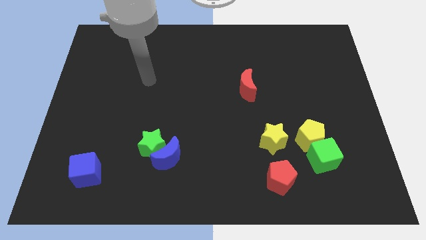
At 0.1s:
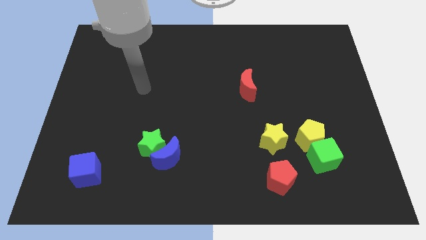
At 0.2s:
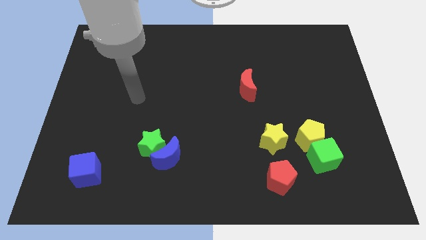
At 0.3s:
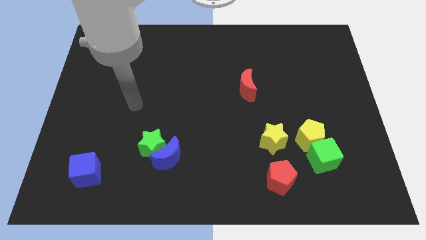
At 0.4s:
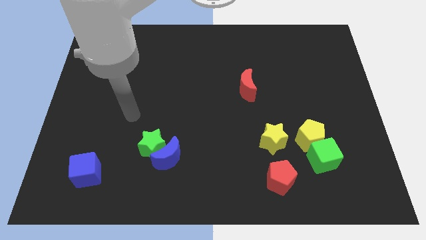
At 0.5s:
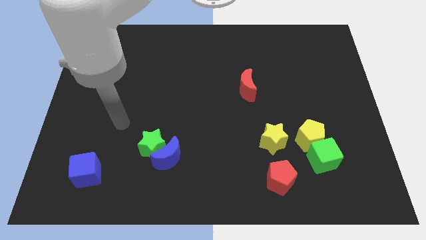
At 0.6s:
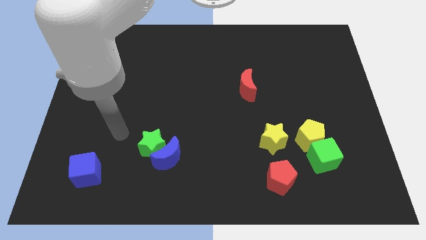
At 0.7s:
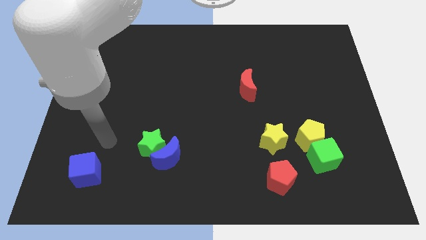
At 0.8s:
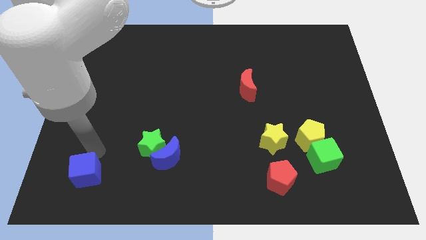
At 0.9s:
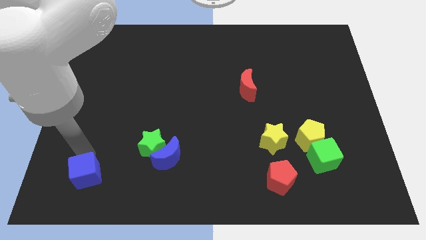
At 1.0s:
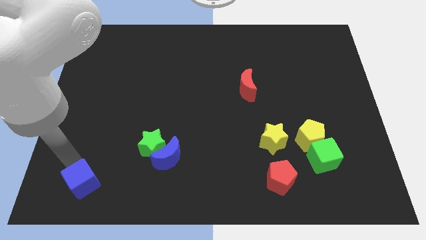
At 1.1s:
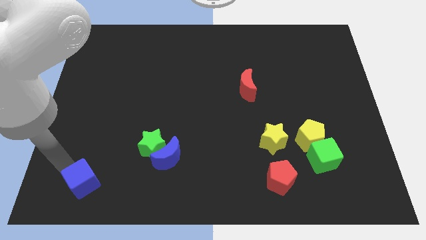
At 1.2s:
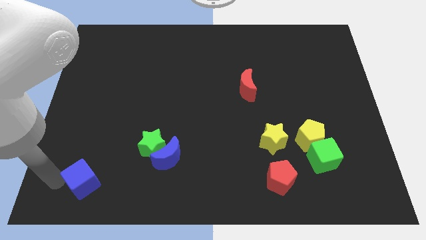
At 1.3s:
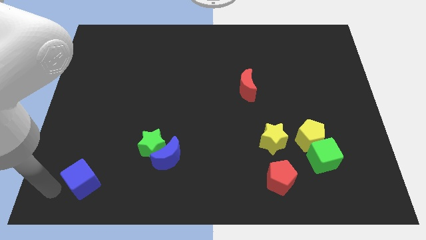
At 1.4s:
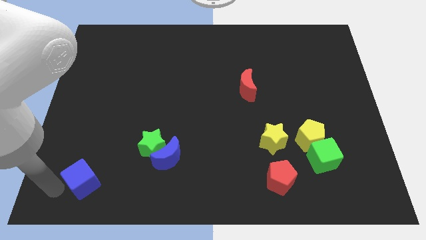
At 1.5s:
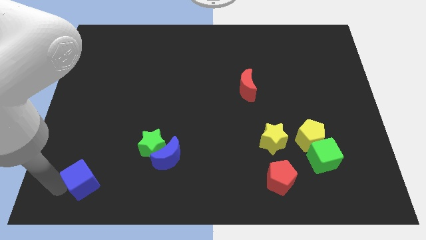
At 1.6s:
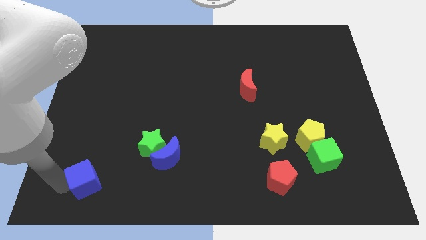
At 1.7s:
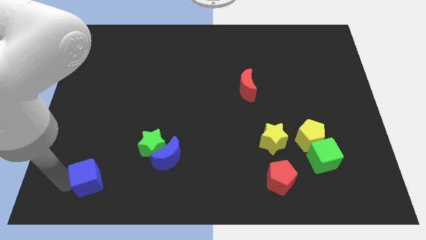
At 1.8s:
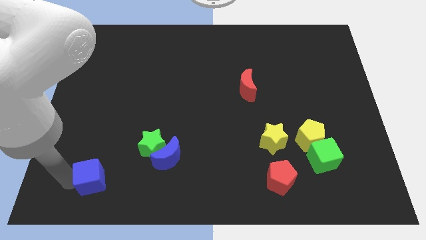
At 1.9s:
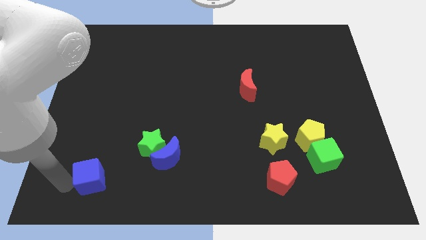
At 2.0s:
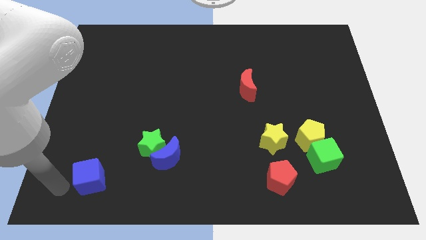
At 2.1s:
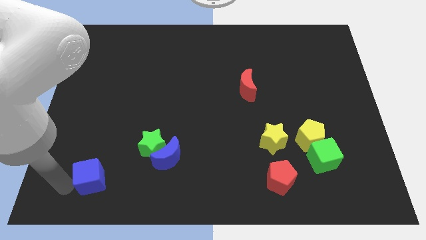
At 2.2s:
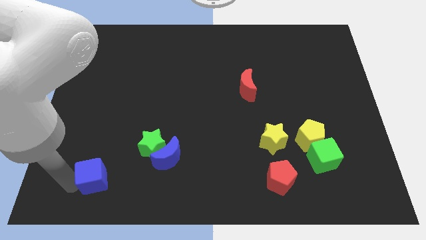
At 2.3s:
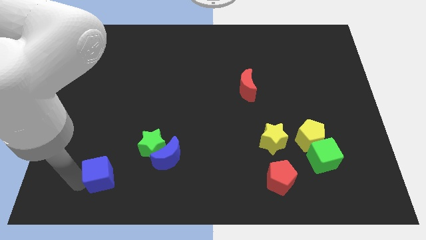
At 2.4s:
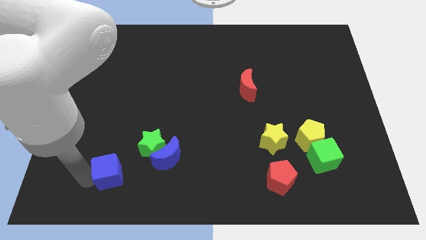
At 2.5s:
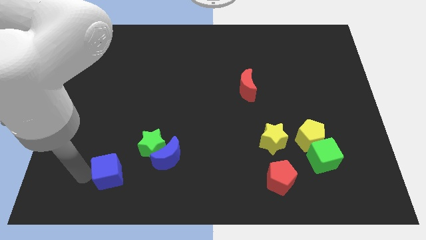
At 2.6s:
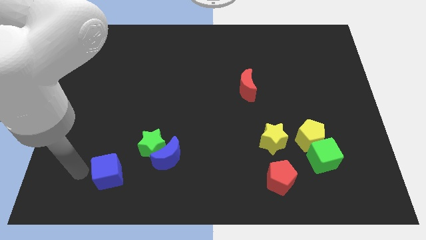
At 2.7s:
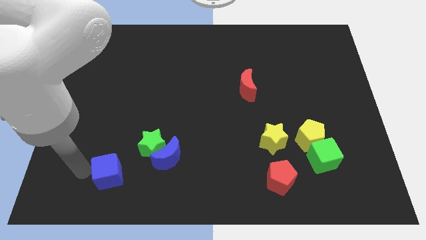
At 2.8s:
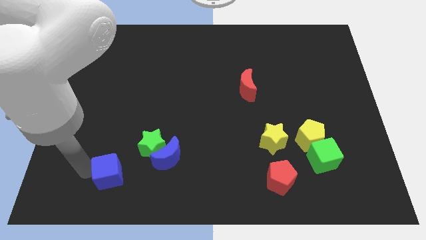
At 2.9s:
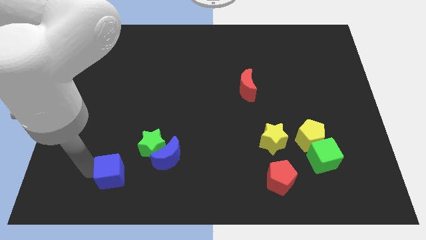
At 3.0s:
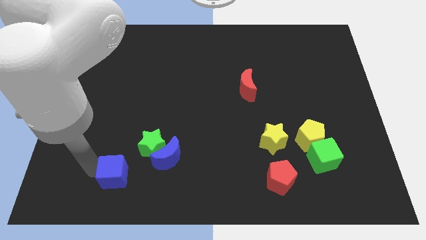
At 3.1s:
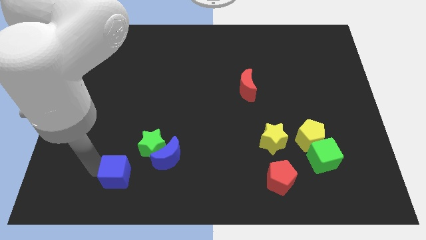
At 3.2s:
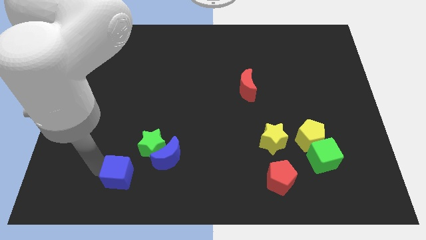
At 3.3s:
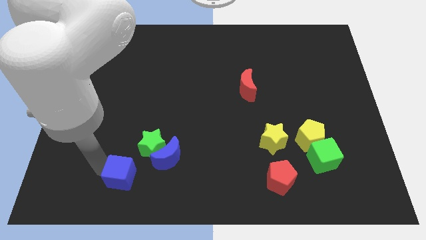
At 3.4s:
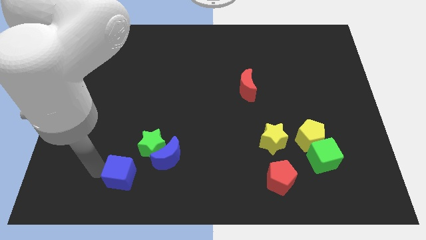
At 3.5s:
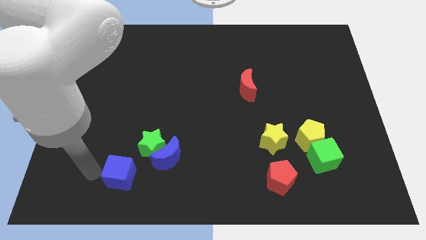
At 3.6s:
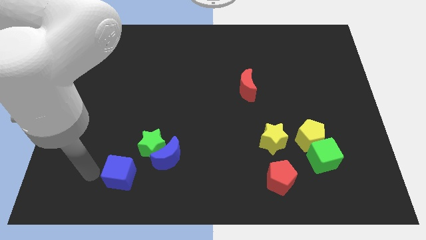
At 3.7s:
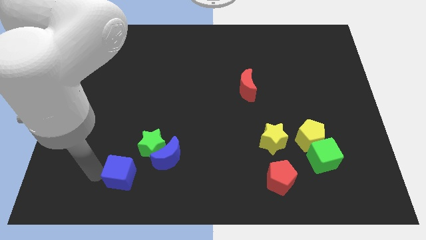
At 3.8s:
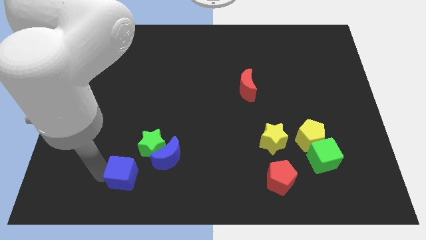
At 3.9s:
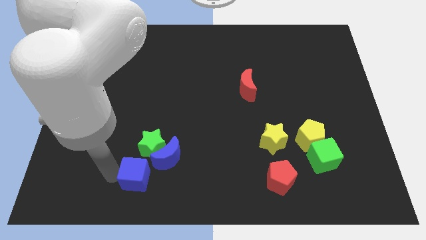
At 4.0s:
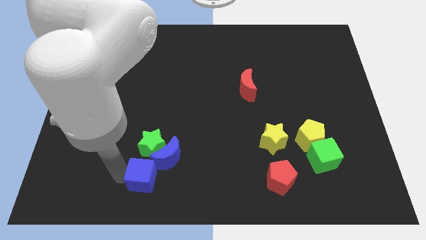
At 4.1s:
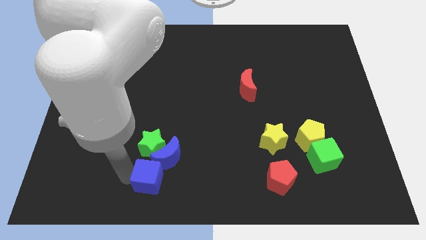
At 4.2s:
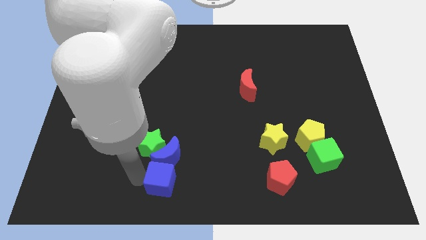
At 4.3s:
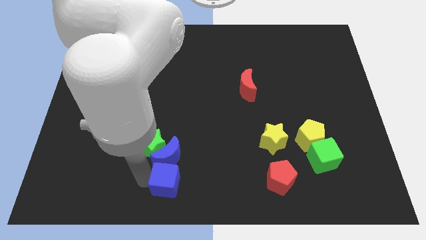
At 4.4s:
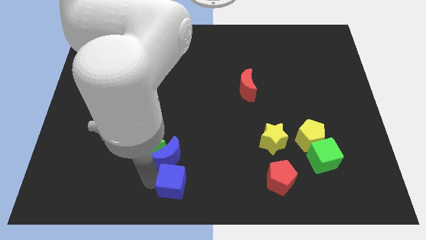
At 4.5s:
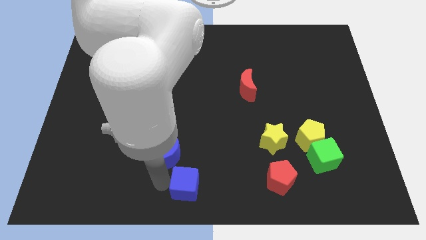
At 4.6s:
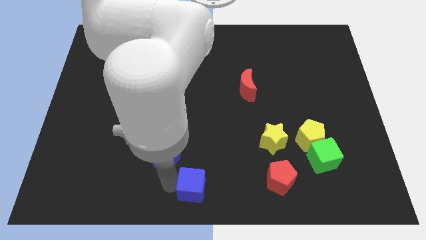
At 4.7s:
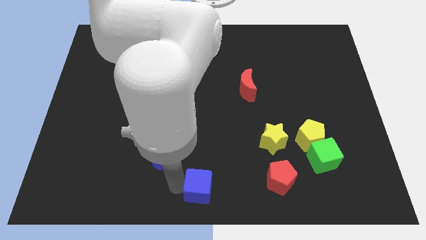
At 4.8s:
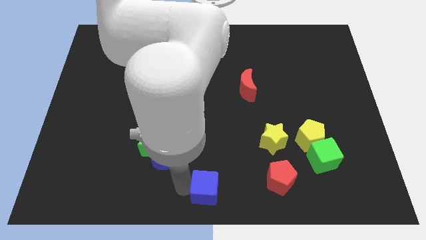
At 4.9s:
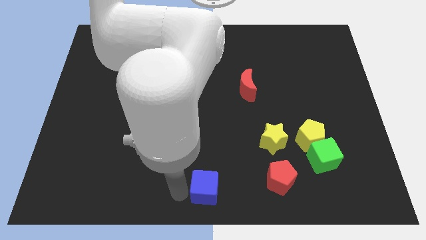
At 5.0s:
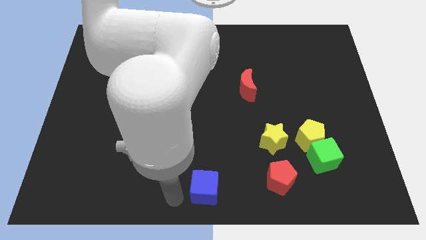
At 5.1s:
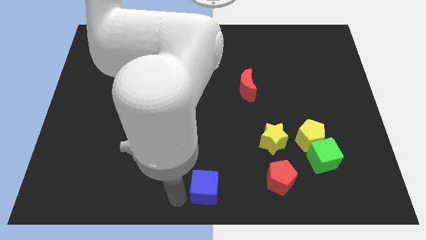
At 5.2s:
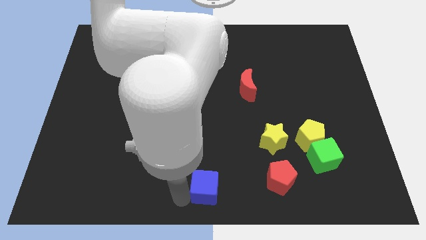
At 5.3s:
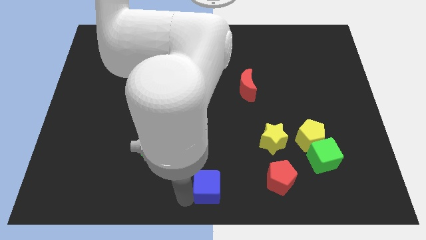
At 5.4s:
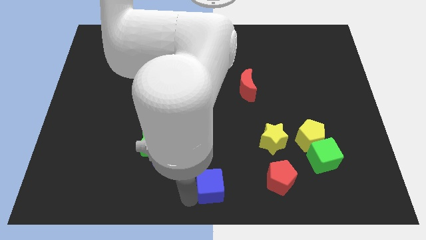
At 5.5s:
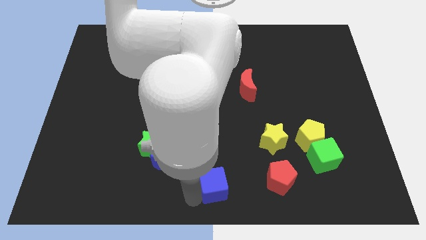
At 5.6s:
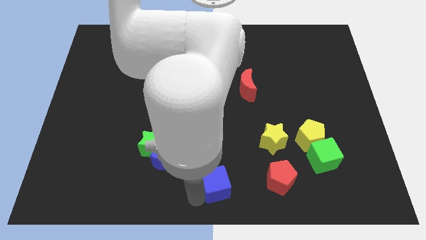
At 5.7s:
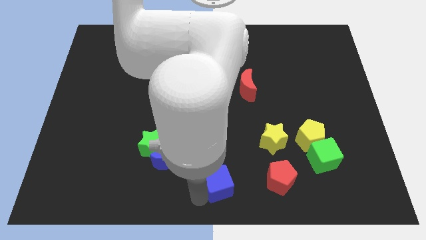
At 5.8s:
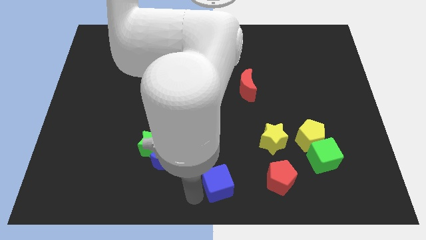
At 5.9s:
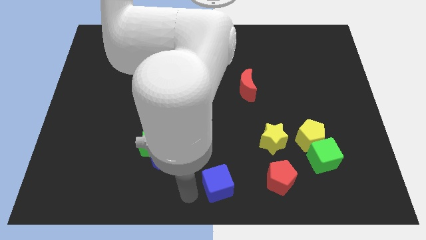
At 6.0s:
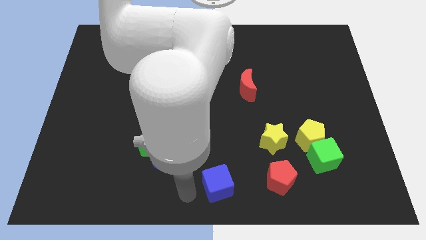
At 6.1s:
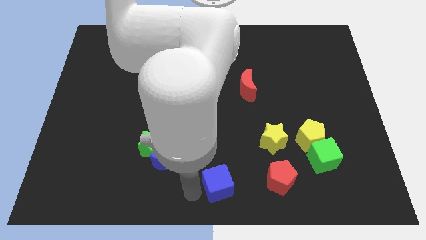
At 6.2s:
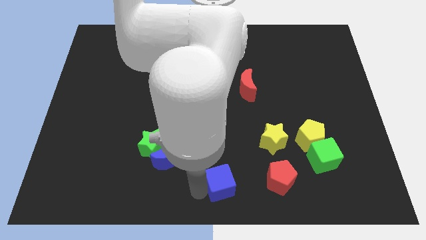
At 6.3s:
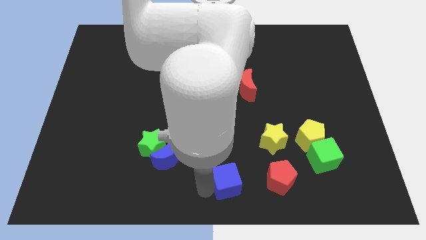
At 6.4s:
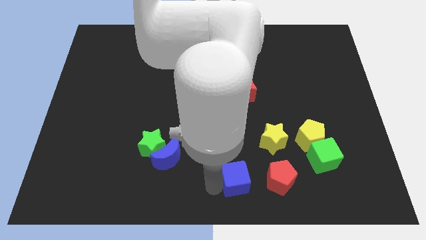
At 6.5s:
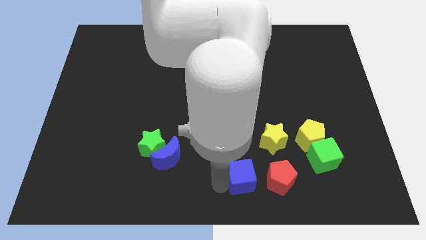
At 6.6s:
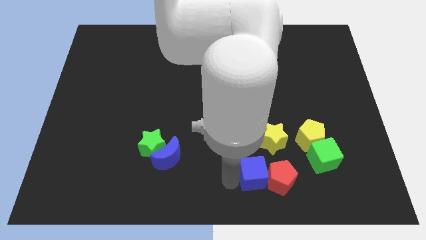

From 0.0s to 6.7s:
slide the blue cube to the red pentagon
